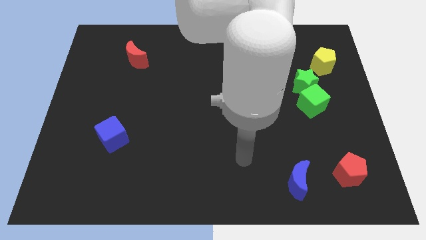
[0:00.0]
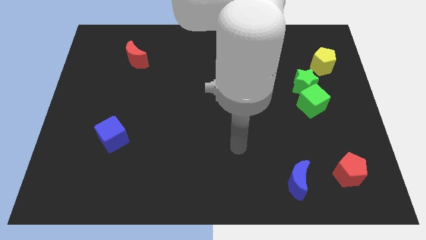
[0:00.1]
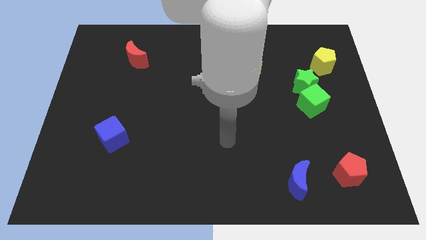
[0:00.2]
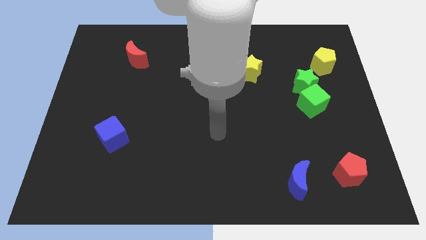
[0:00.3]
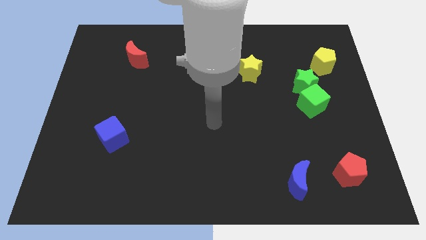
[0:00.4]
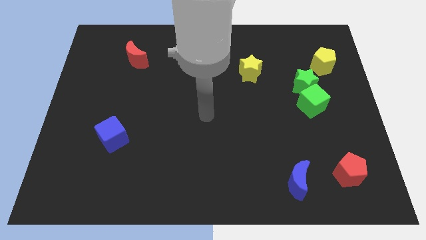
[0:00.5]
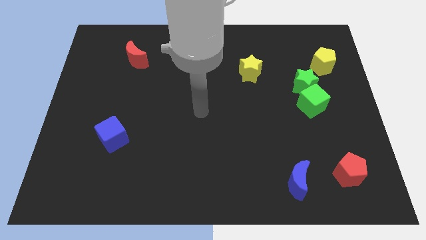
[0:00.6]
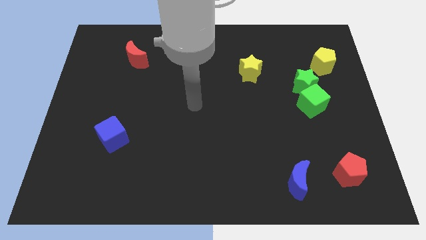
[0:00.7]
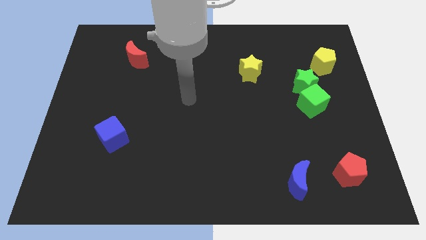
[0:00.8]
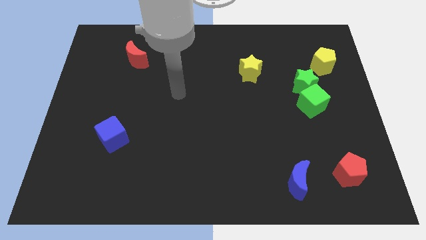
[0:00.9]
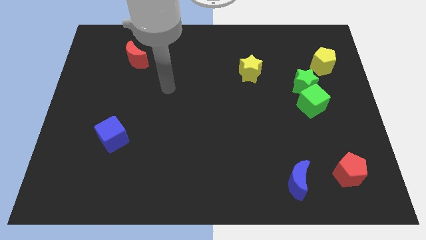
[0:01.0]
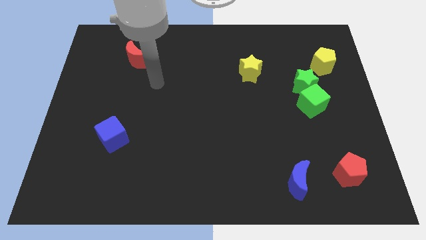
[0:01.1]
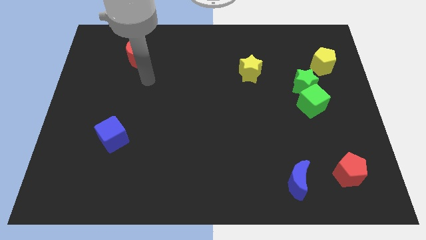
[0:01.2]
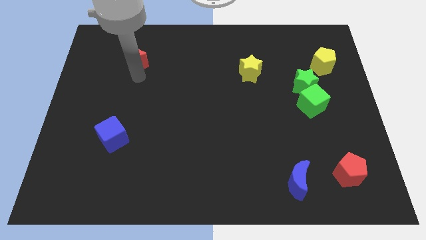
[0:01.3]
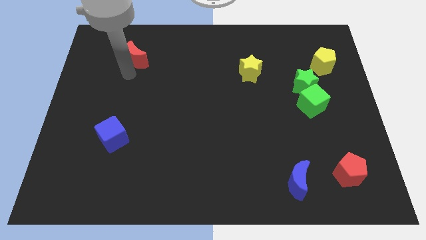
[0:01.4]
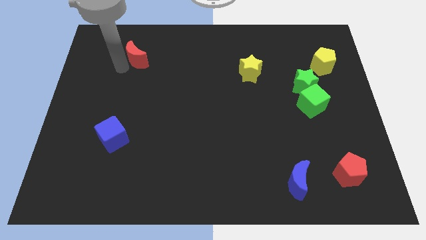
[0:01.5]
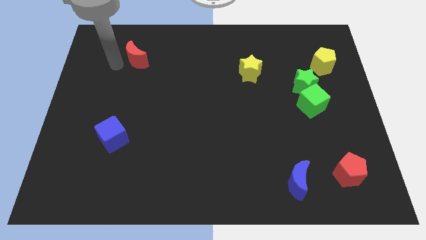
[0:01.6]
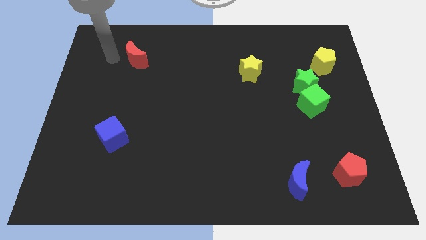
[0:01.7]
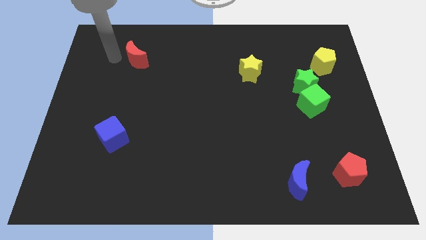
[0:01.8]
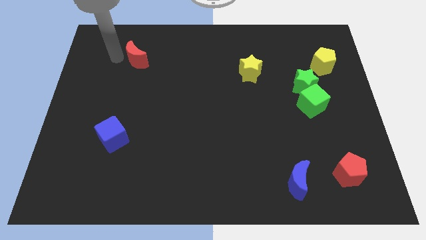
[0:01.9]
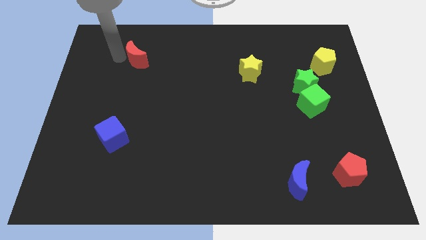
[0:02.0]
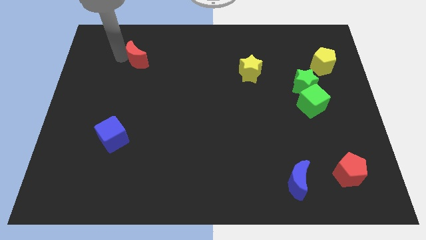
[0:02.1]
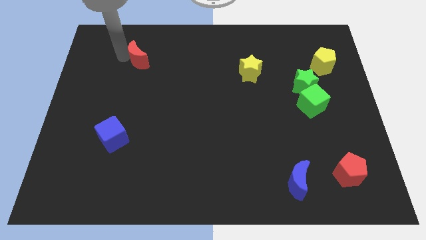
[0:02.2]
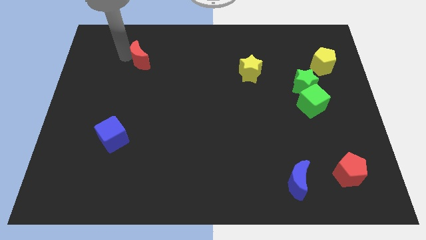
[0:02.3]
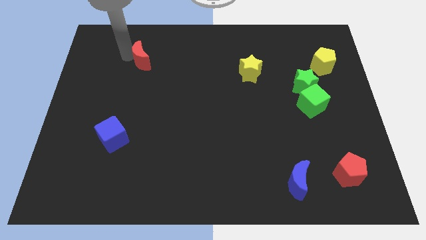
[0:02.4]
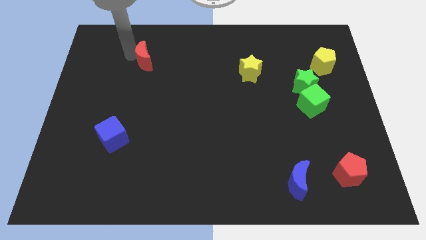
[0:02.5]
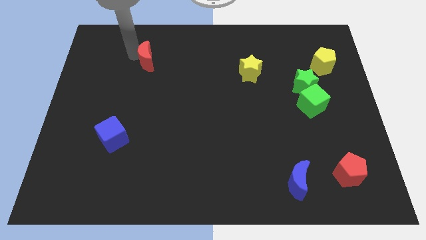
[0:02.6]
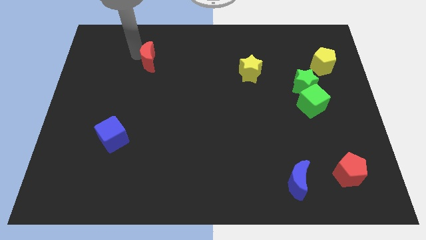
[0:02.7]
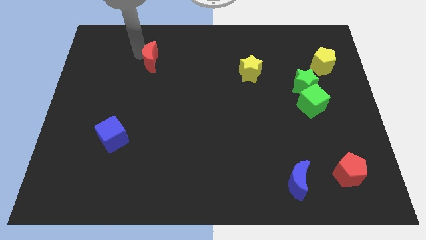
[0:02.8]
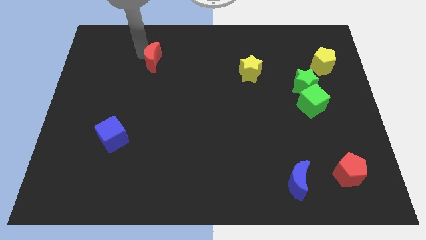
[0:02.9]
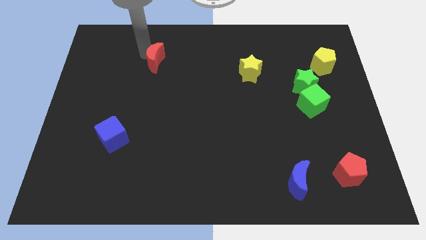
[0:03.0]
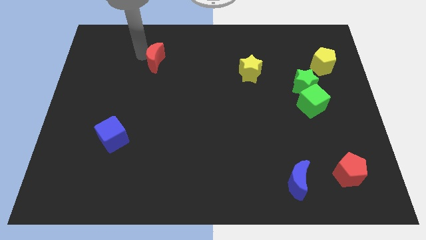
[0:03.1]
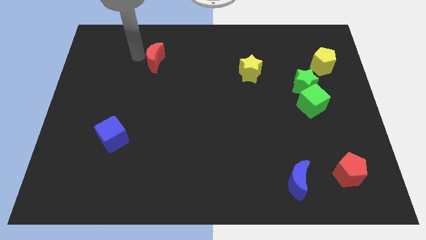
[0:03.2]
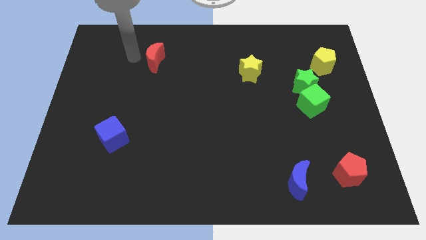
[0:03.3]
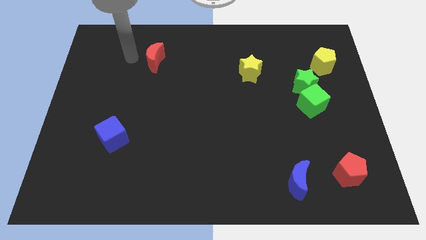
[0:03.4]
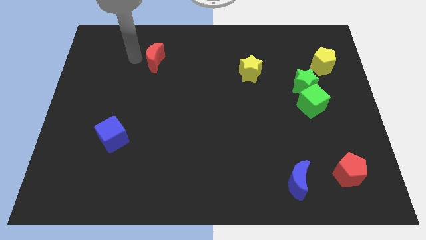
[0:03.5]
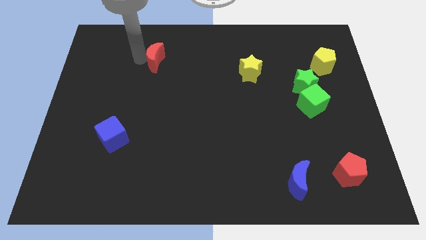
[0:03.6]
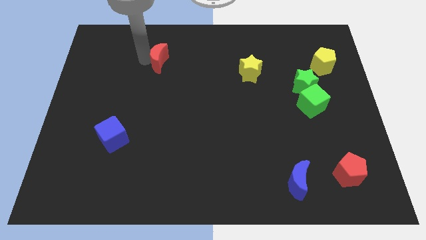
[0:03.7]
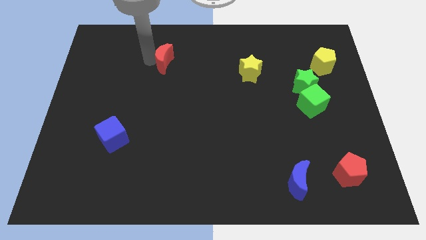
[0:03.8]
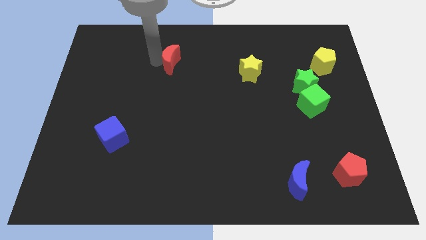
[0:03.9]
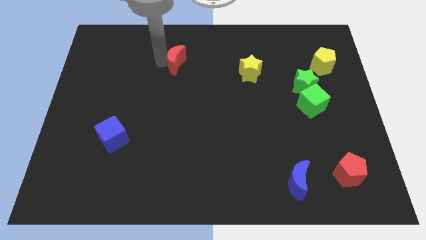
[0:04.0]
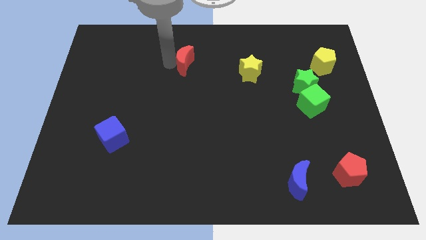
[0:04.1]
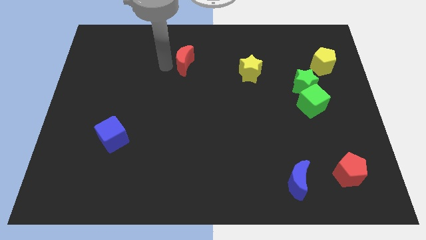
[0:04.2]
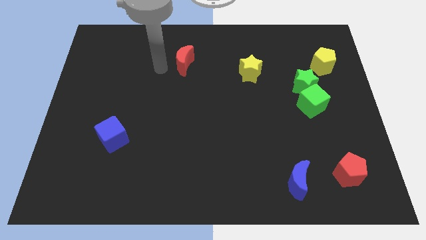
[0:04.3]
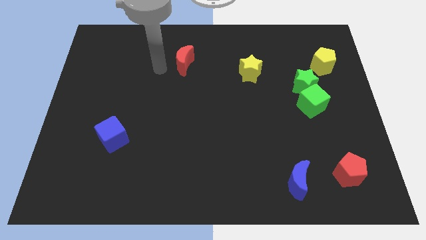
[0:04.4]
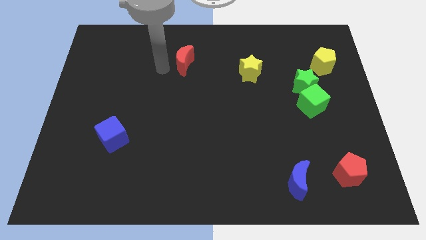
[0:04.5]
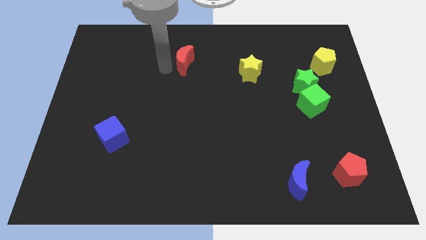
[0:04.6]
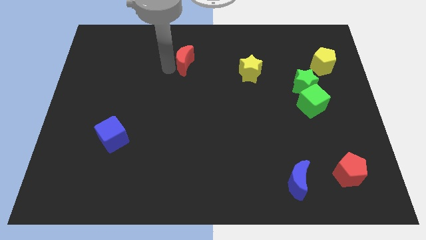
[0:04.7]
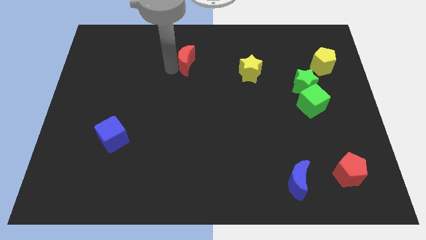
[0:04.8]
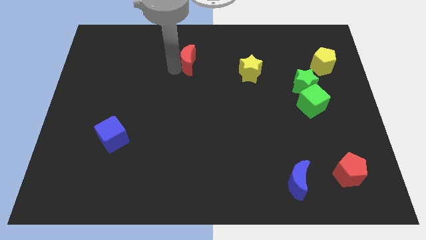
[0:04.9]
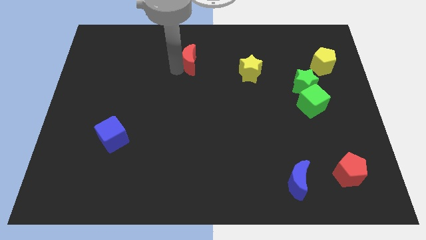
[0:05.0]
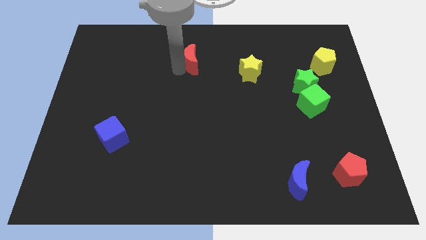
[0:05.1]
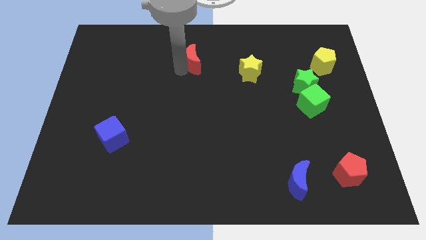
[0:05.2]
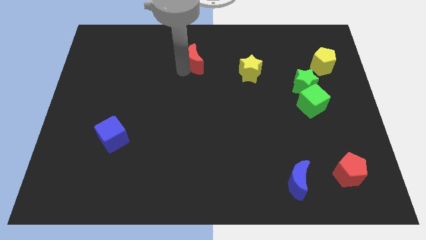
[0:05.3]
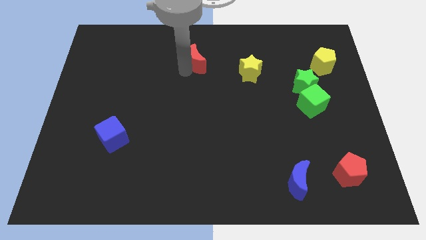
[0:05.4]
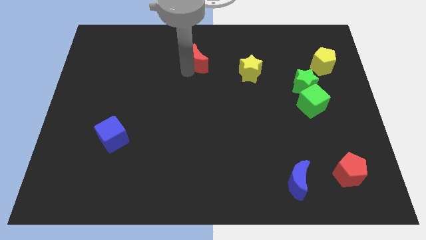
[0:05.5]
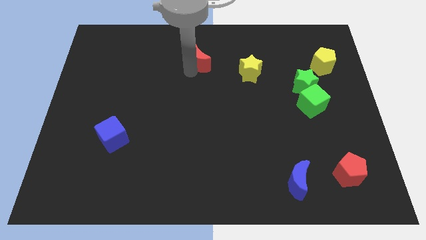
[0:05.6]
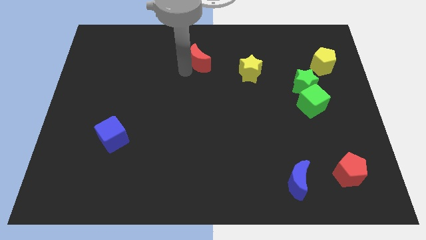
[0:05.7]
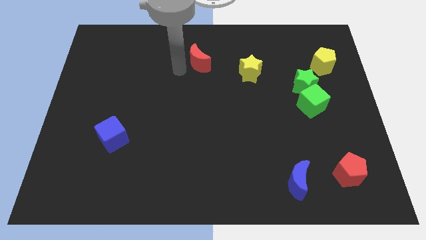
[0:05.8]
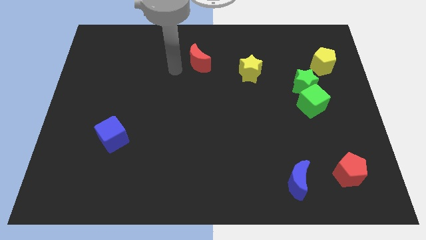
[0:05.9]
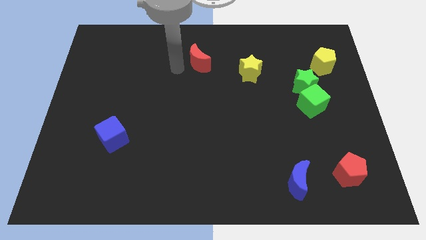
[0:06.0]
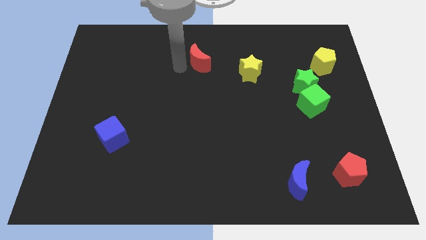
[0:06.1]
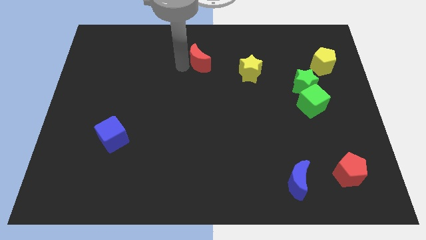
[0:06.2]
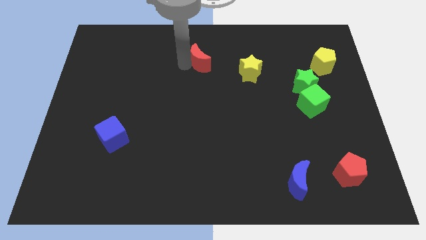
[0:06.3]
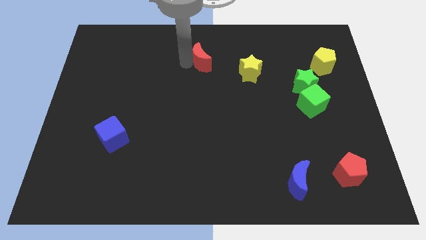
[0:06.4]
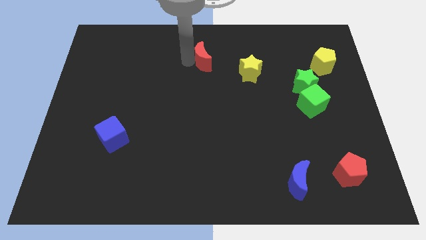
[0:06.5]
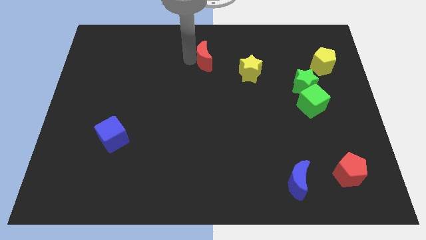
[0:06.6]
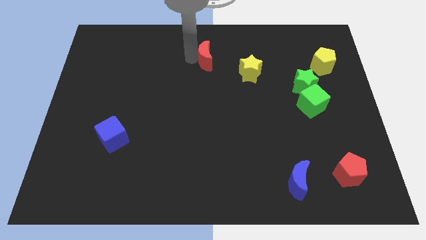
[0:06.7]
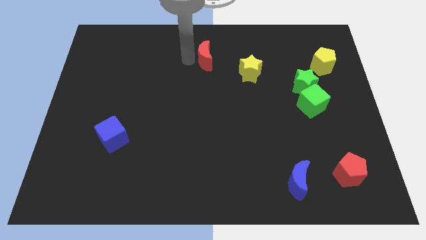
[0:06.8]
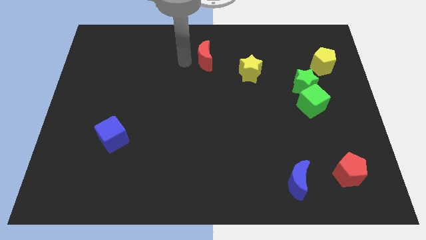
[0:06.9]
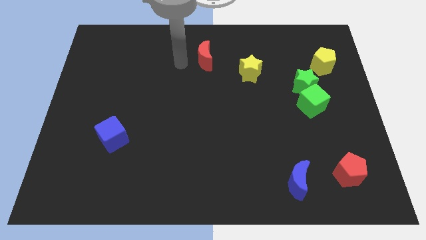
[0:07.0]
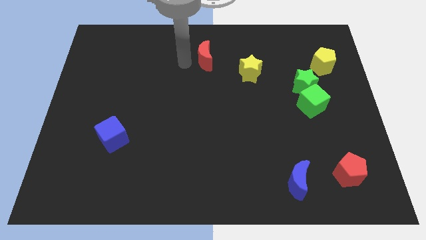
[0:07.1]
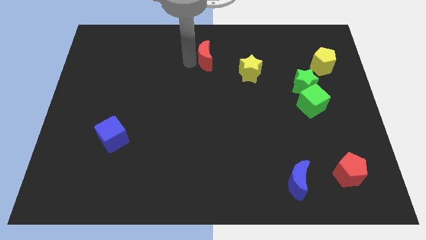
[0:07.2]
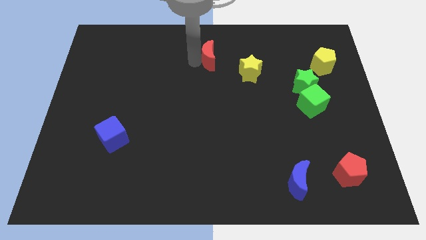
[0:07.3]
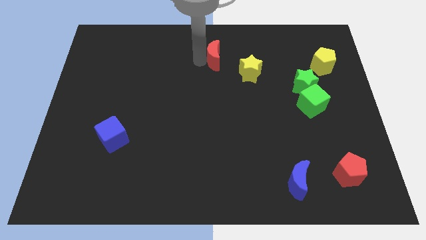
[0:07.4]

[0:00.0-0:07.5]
slide the red moon to the right
